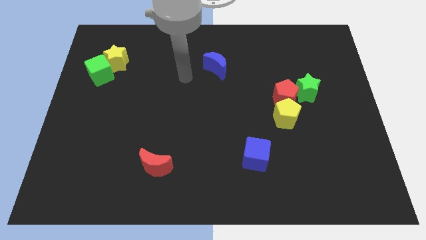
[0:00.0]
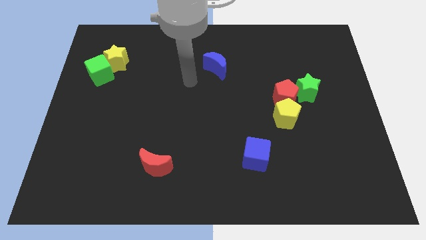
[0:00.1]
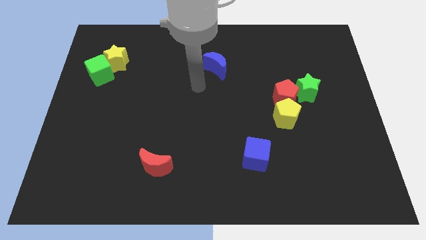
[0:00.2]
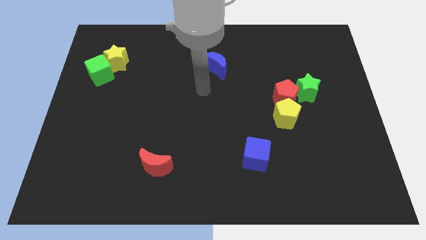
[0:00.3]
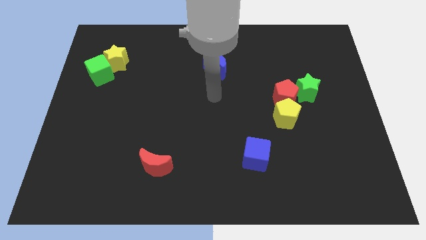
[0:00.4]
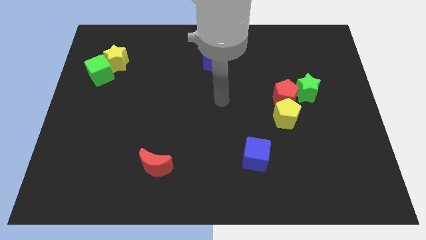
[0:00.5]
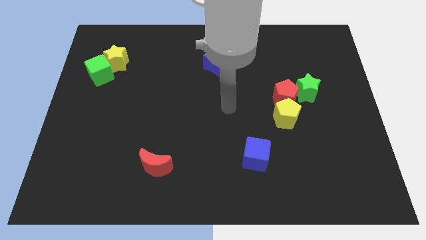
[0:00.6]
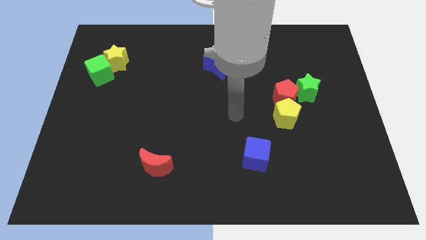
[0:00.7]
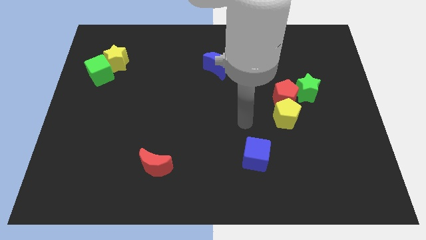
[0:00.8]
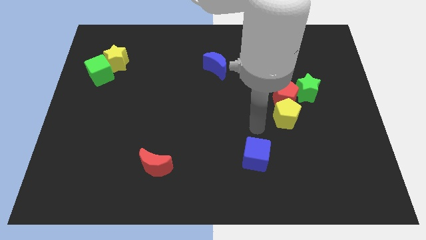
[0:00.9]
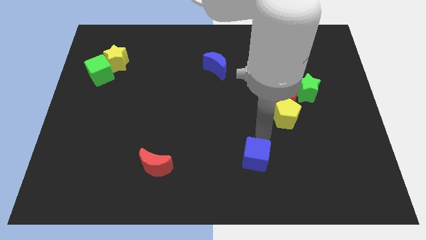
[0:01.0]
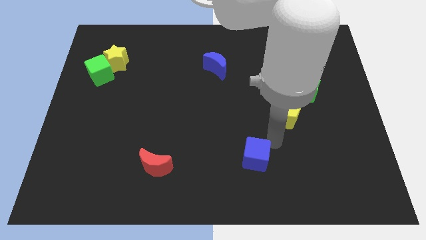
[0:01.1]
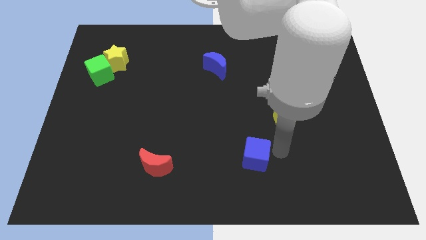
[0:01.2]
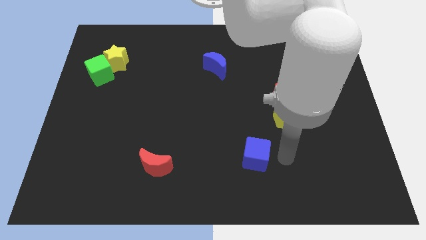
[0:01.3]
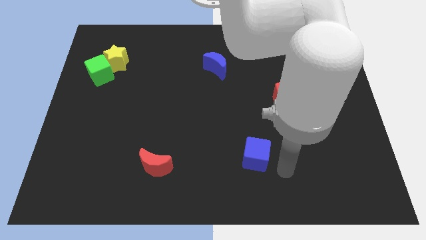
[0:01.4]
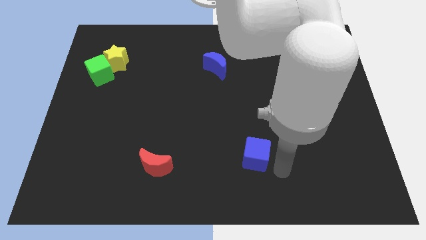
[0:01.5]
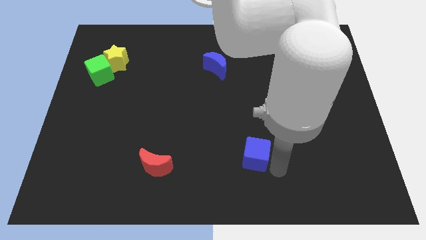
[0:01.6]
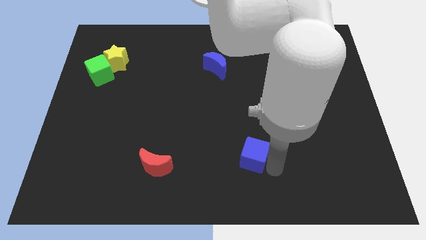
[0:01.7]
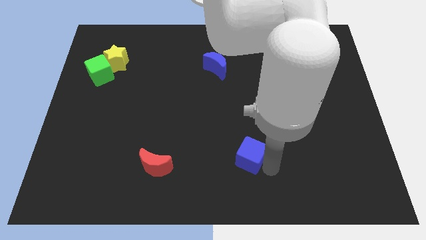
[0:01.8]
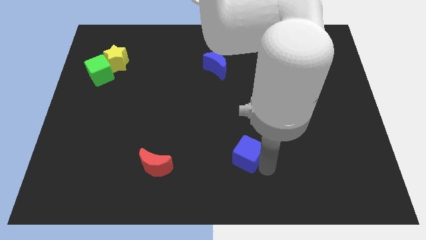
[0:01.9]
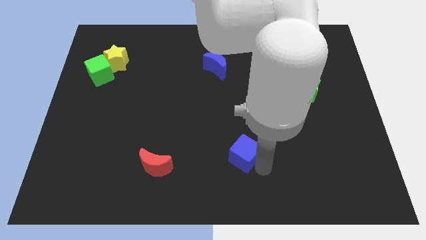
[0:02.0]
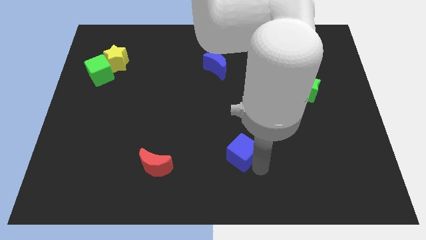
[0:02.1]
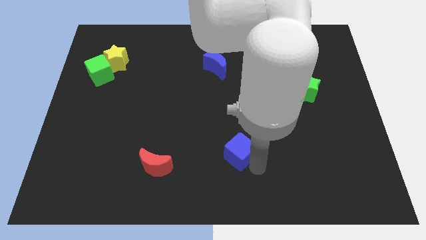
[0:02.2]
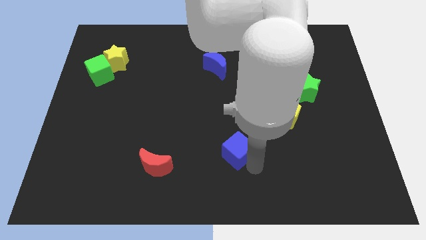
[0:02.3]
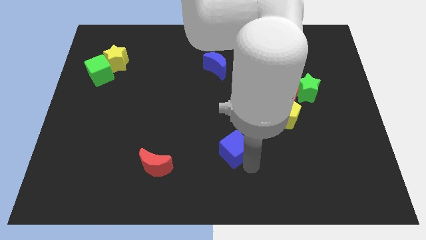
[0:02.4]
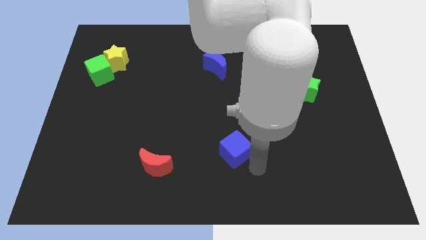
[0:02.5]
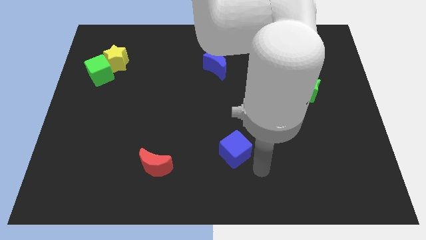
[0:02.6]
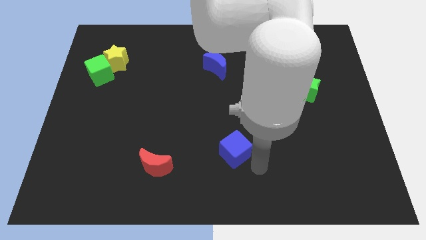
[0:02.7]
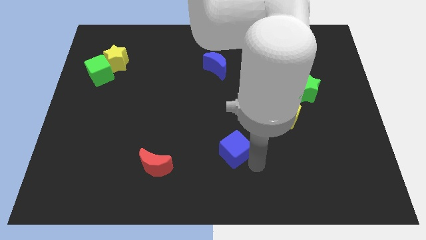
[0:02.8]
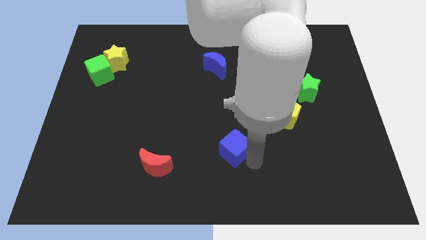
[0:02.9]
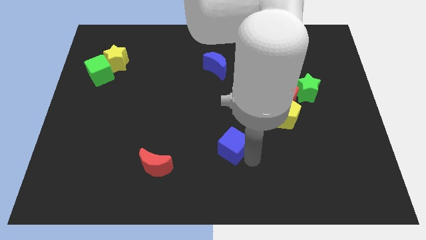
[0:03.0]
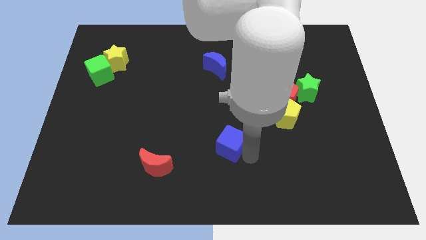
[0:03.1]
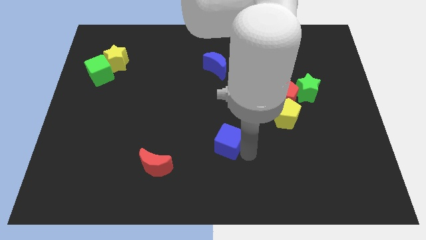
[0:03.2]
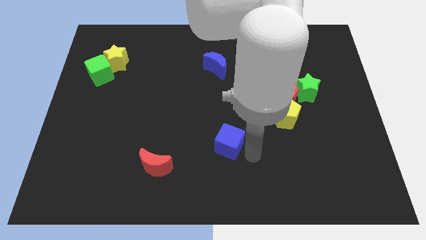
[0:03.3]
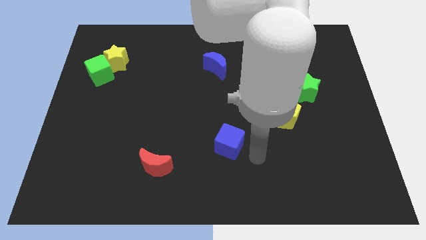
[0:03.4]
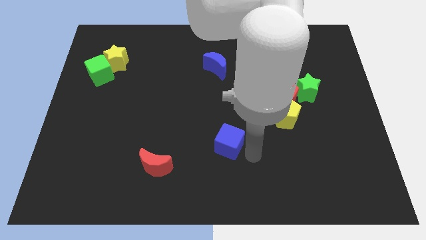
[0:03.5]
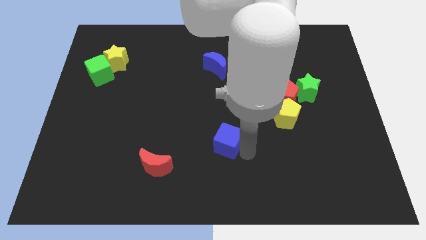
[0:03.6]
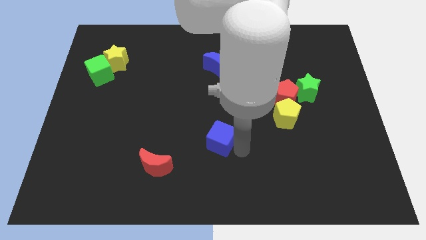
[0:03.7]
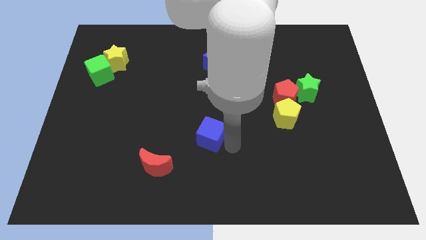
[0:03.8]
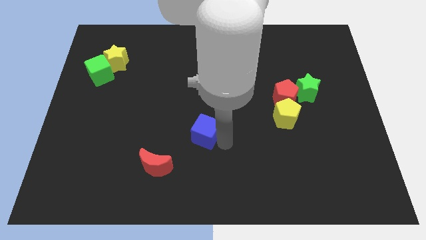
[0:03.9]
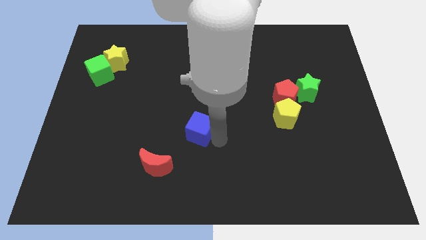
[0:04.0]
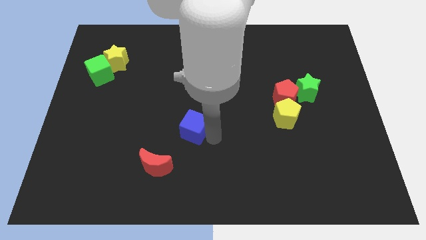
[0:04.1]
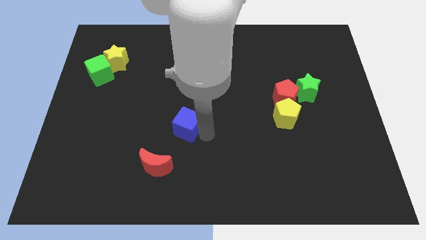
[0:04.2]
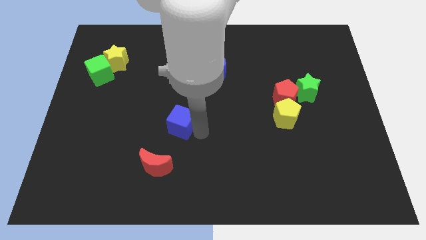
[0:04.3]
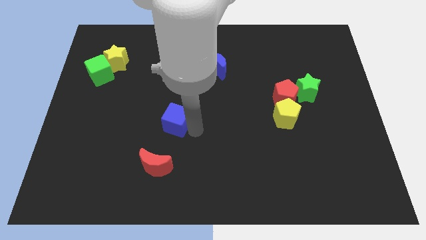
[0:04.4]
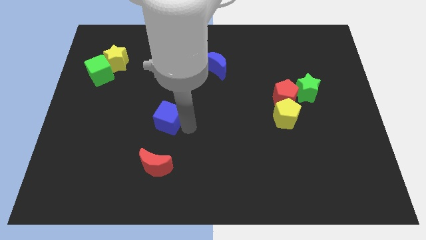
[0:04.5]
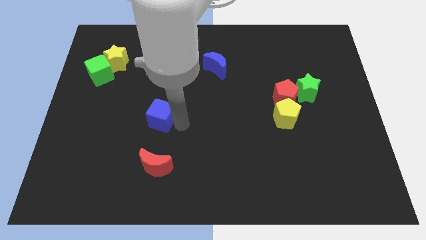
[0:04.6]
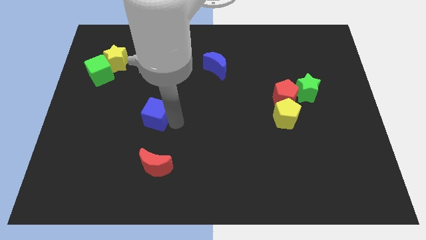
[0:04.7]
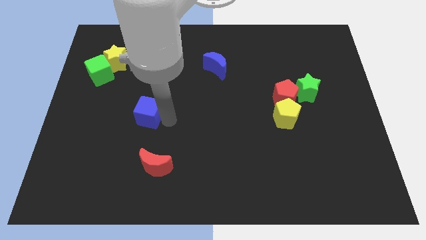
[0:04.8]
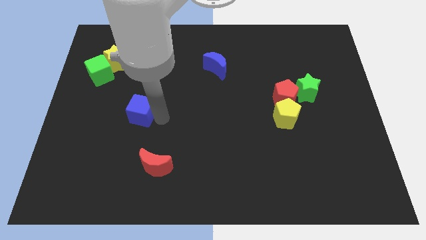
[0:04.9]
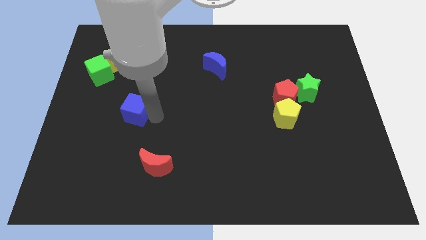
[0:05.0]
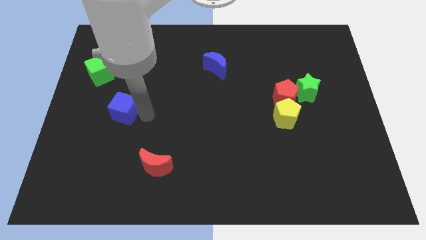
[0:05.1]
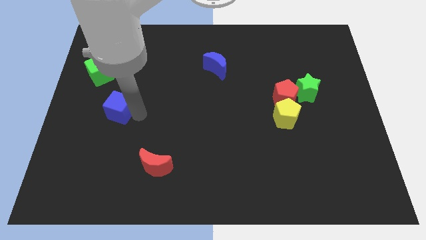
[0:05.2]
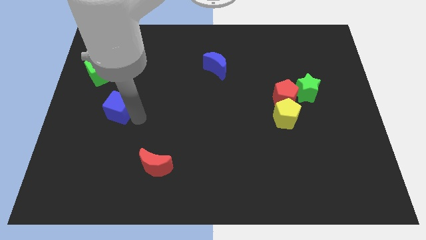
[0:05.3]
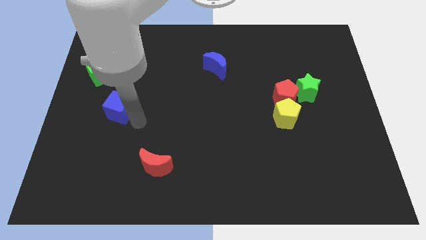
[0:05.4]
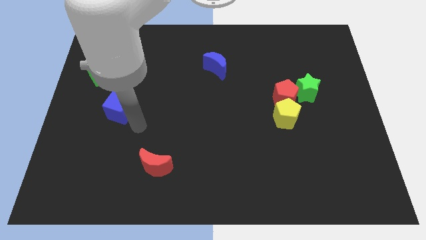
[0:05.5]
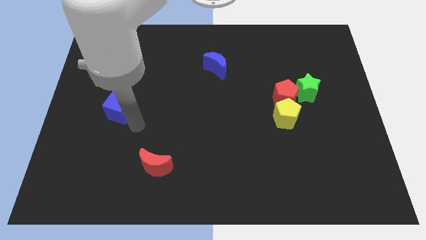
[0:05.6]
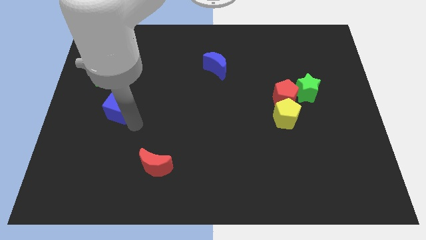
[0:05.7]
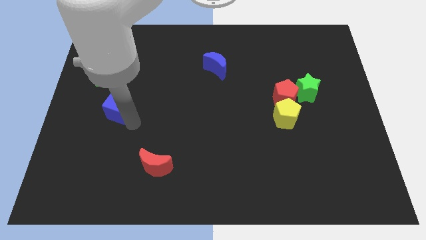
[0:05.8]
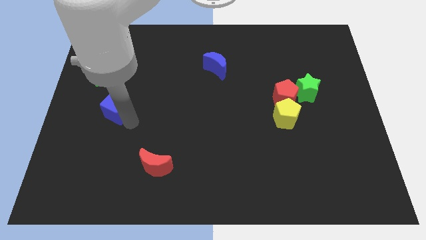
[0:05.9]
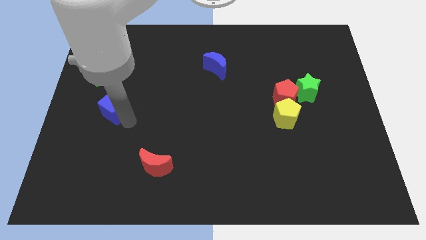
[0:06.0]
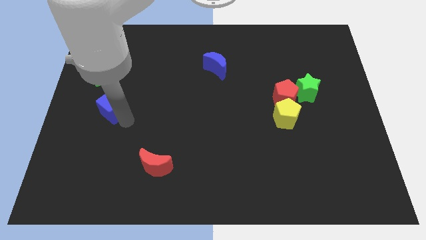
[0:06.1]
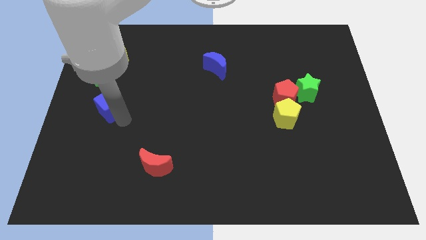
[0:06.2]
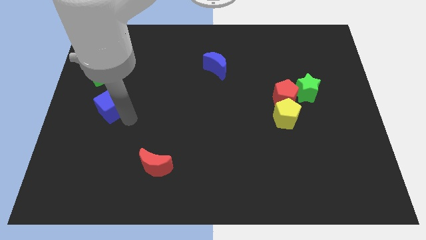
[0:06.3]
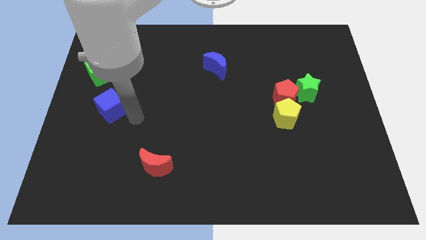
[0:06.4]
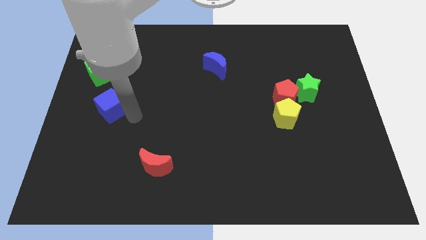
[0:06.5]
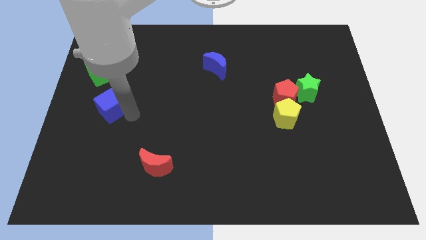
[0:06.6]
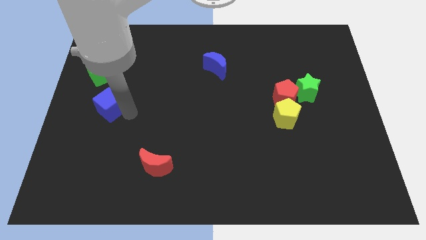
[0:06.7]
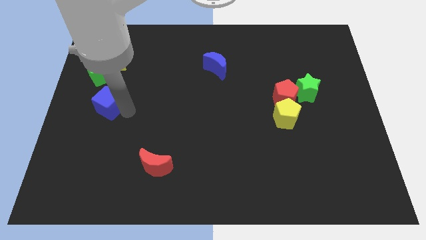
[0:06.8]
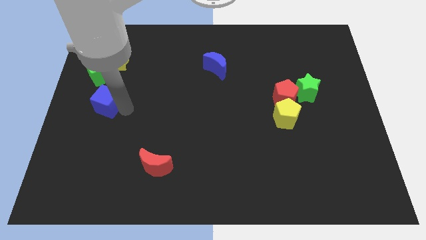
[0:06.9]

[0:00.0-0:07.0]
slide the blue cube to the left side
